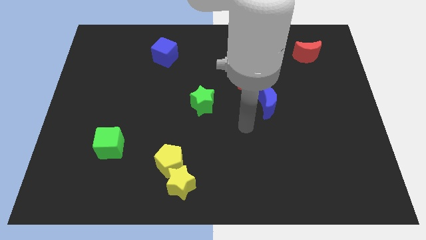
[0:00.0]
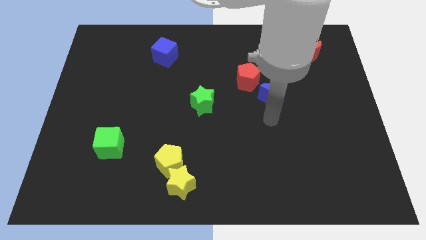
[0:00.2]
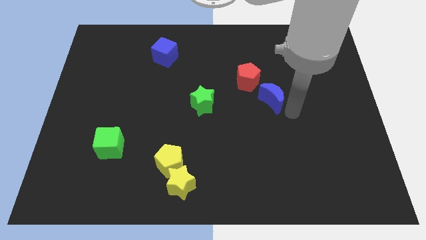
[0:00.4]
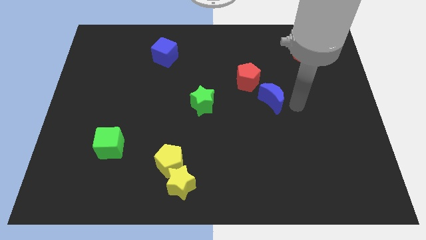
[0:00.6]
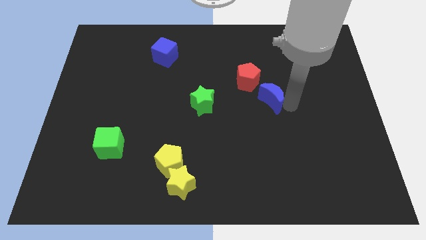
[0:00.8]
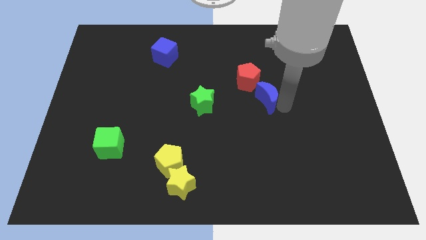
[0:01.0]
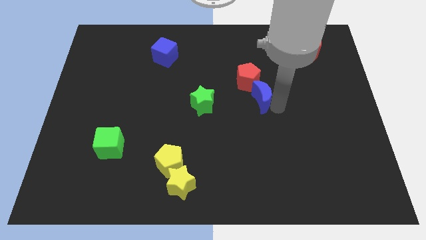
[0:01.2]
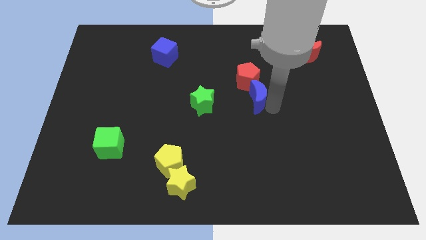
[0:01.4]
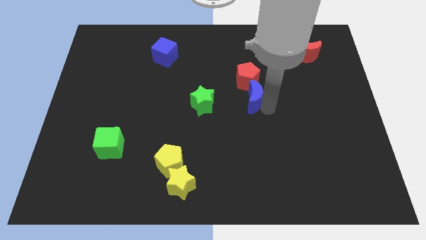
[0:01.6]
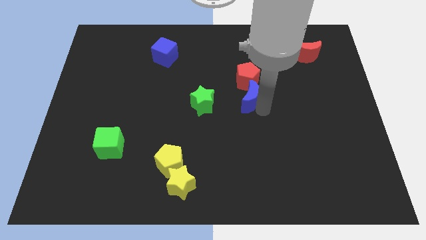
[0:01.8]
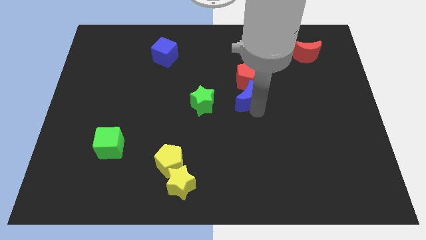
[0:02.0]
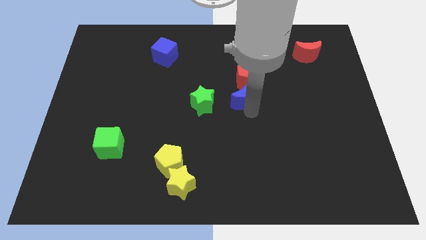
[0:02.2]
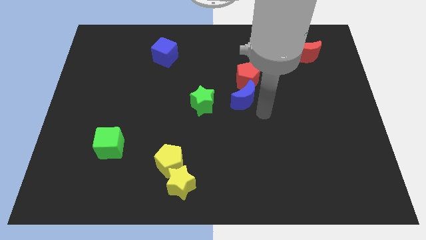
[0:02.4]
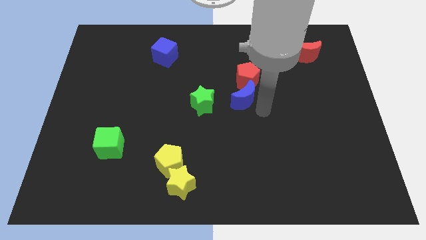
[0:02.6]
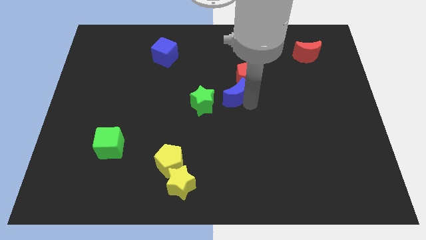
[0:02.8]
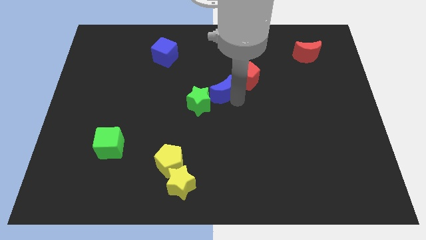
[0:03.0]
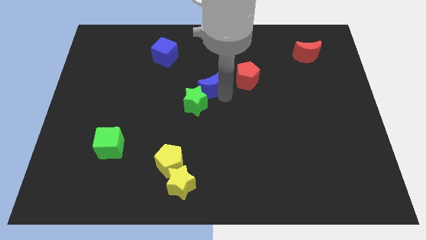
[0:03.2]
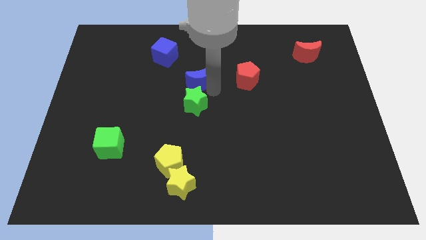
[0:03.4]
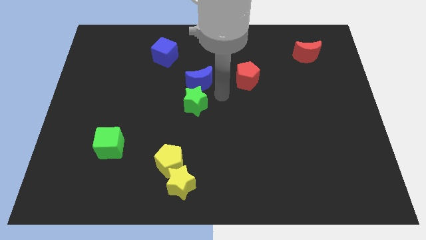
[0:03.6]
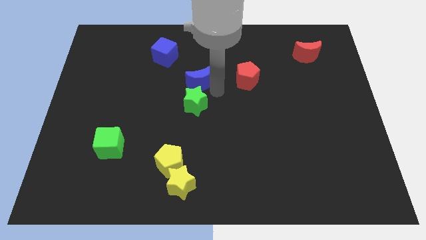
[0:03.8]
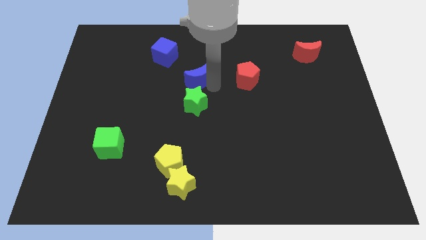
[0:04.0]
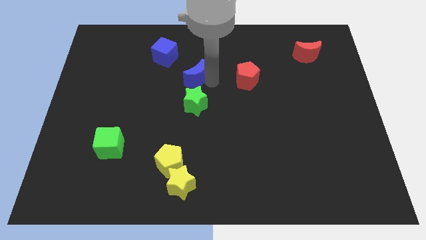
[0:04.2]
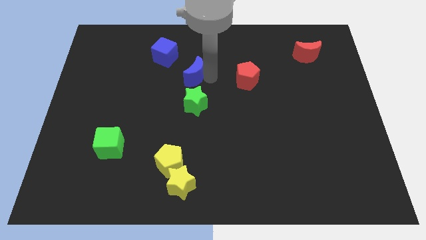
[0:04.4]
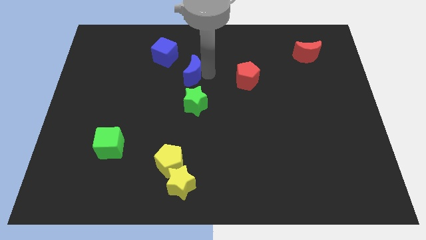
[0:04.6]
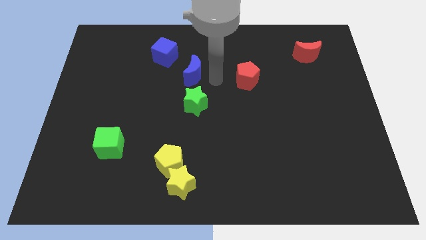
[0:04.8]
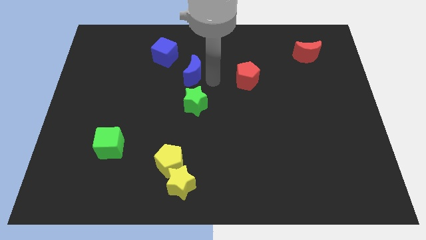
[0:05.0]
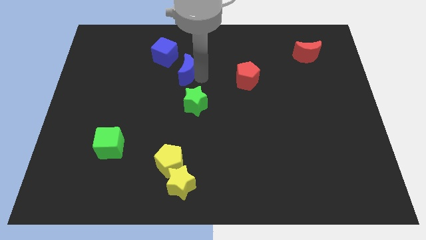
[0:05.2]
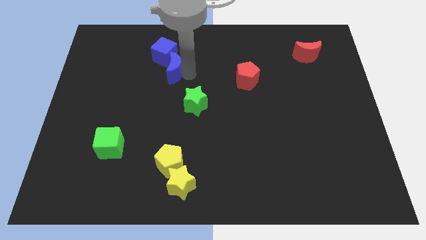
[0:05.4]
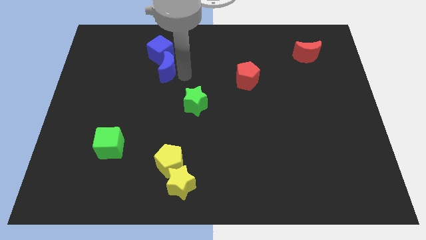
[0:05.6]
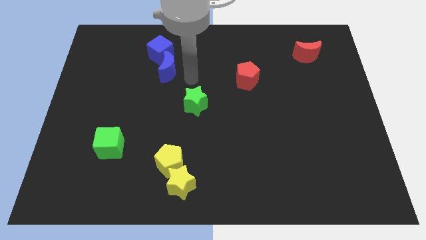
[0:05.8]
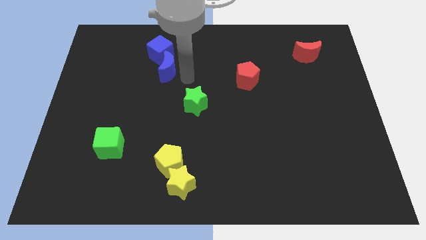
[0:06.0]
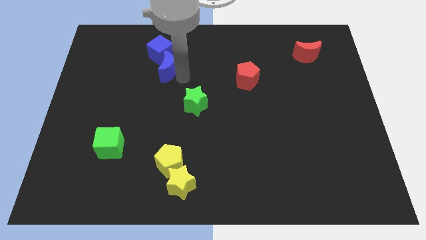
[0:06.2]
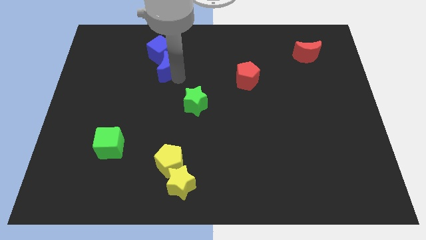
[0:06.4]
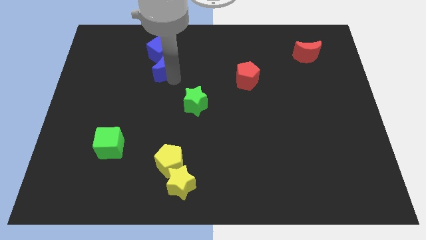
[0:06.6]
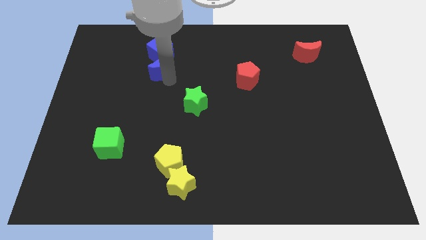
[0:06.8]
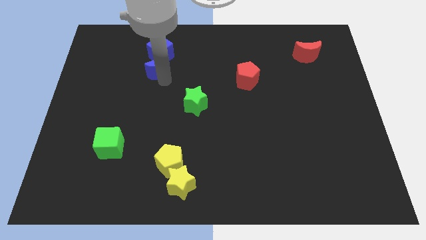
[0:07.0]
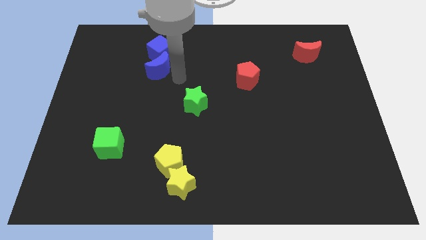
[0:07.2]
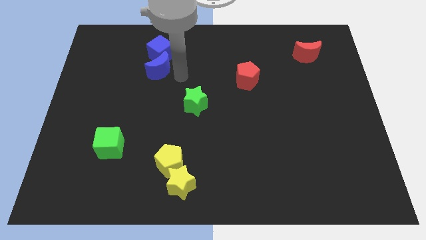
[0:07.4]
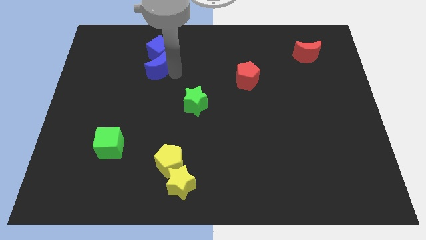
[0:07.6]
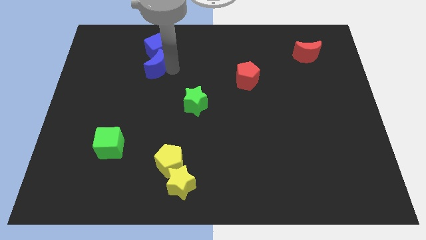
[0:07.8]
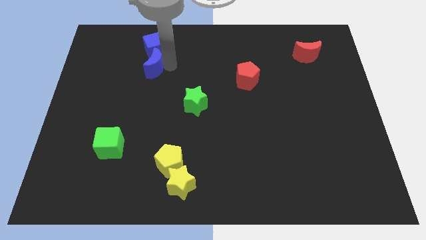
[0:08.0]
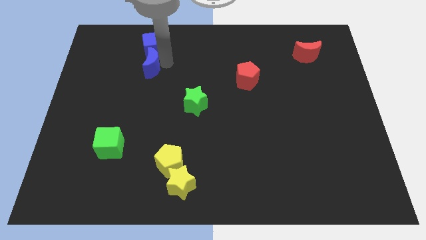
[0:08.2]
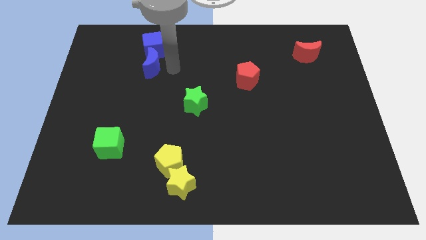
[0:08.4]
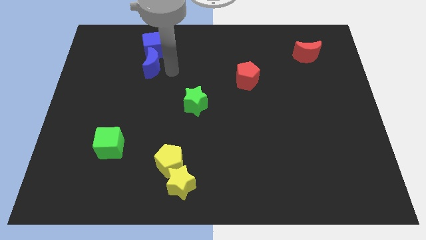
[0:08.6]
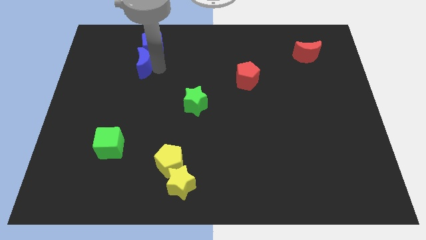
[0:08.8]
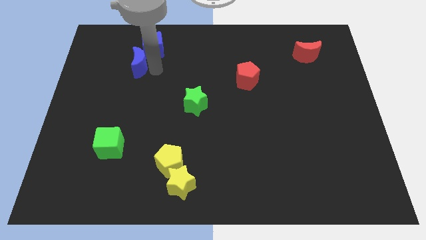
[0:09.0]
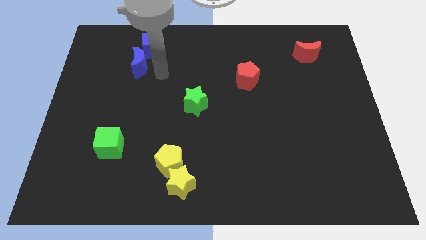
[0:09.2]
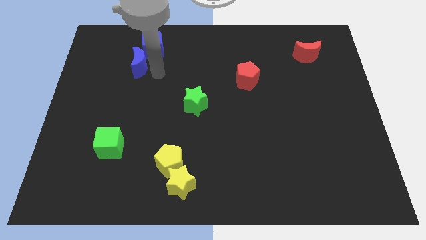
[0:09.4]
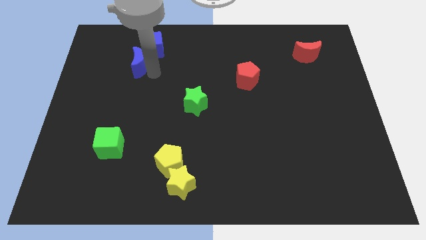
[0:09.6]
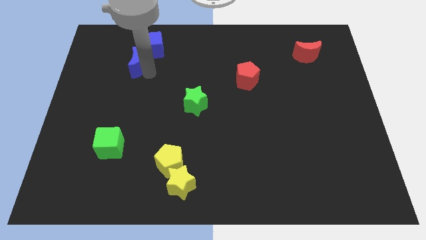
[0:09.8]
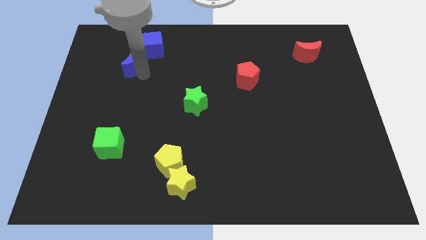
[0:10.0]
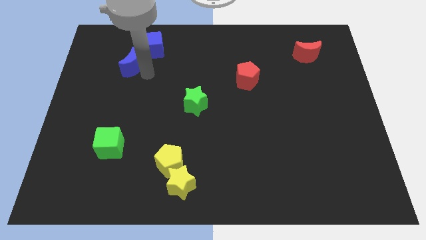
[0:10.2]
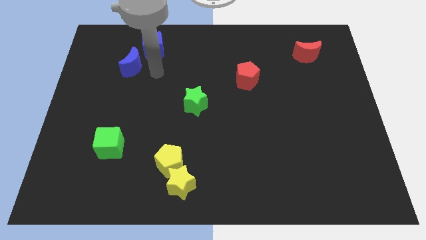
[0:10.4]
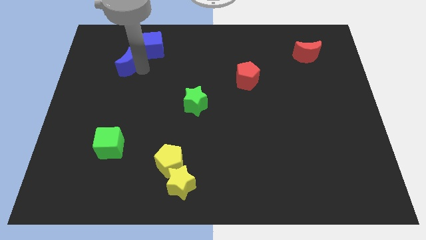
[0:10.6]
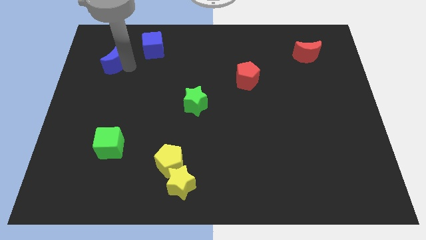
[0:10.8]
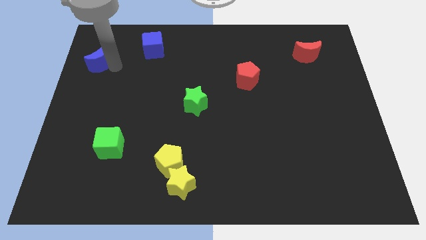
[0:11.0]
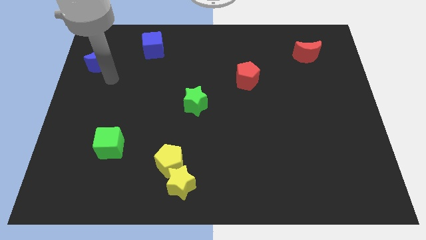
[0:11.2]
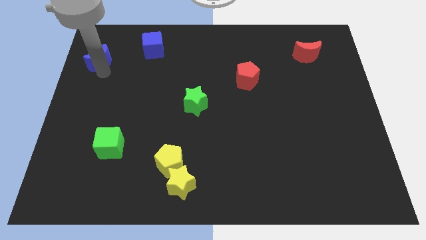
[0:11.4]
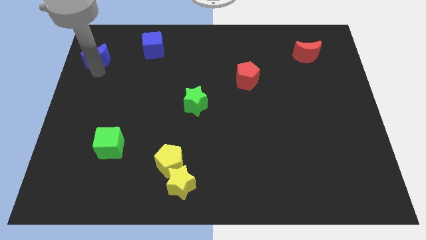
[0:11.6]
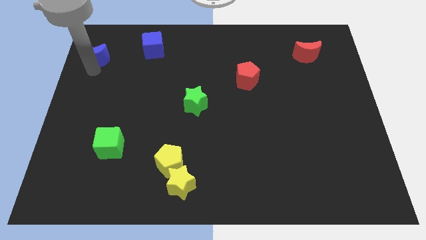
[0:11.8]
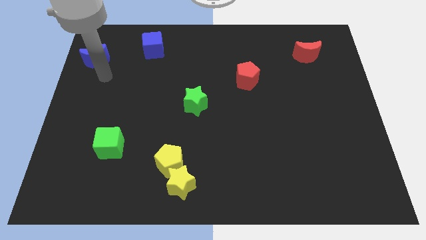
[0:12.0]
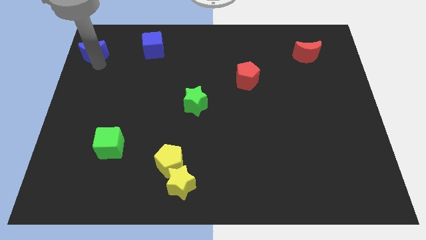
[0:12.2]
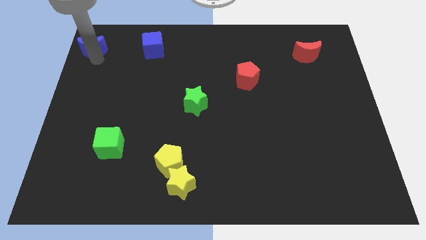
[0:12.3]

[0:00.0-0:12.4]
put the blue moon to the top left of the board

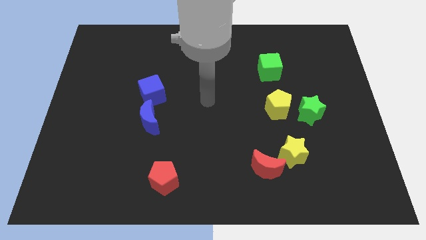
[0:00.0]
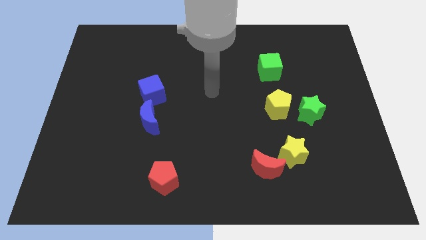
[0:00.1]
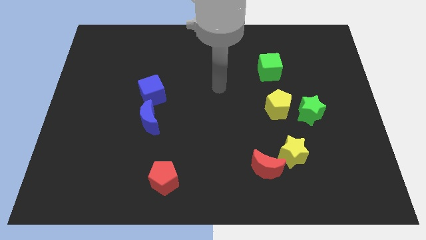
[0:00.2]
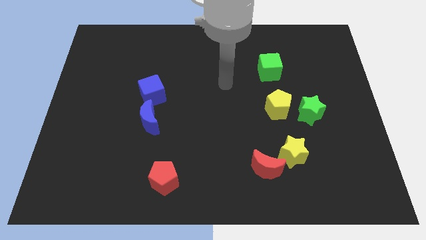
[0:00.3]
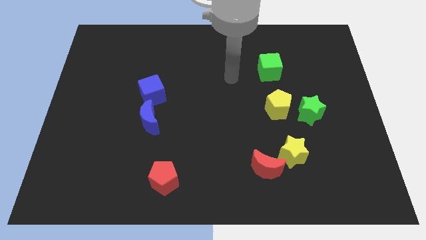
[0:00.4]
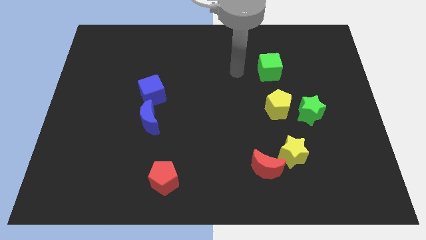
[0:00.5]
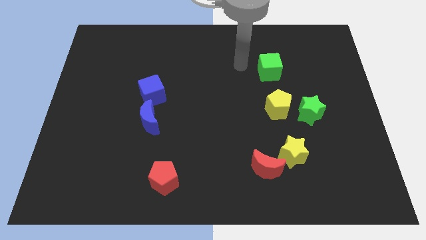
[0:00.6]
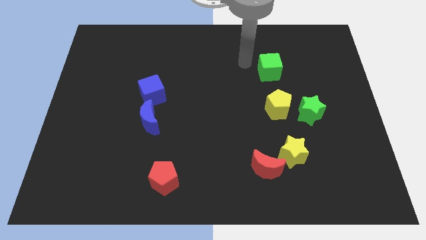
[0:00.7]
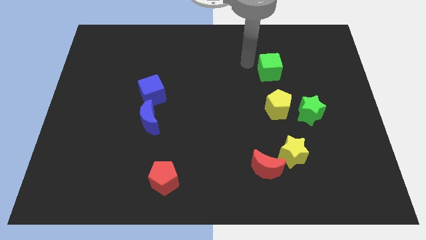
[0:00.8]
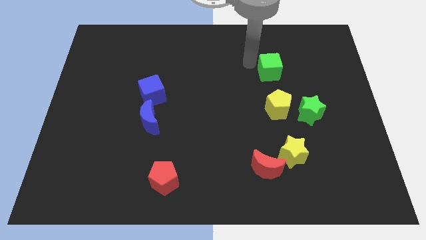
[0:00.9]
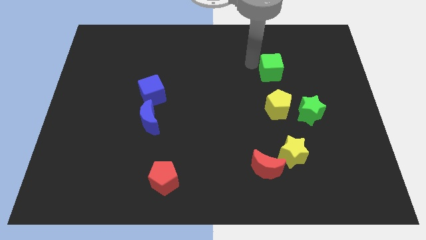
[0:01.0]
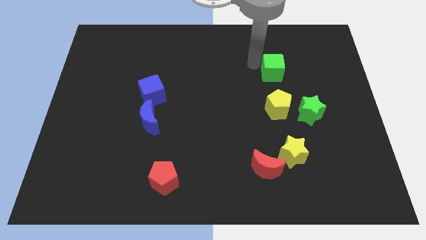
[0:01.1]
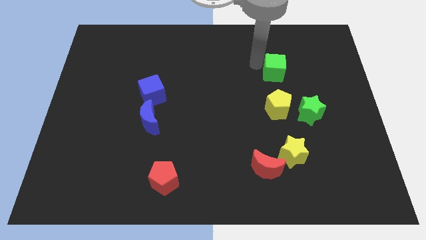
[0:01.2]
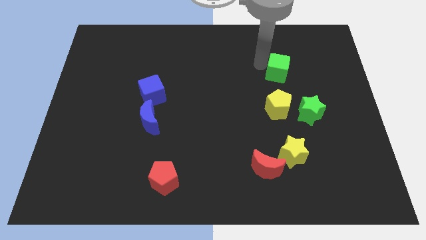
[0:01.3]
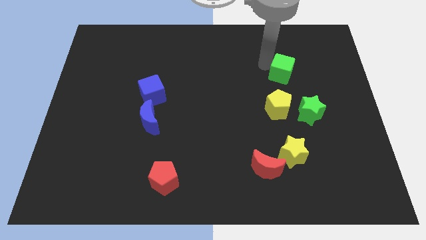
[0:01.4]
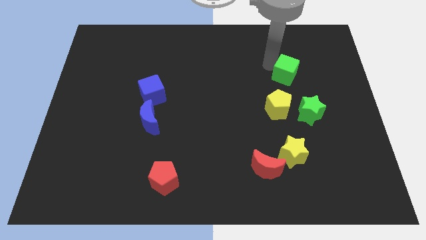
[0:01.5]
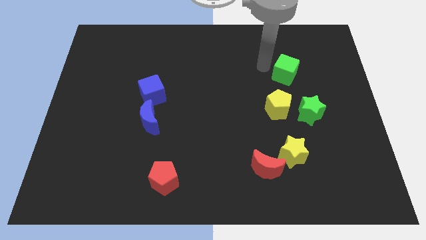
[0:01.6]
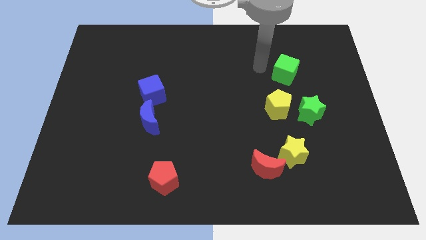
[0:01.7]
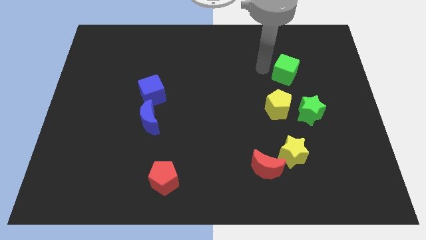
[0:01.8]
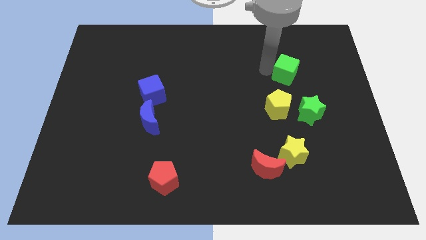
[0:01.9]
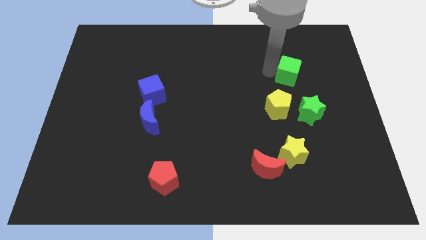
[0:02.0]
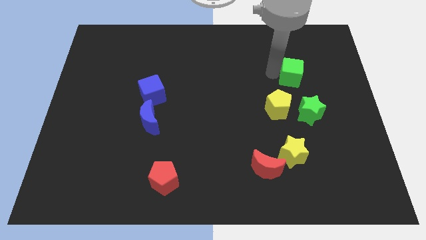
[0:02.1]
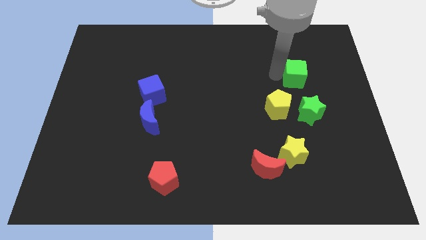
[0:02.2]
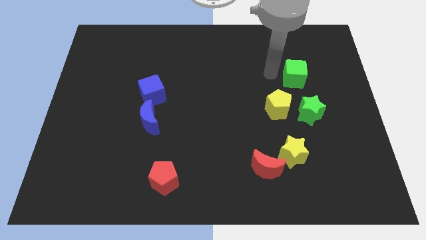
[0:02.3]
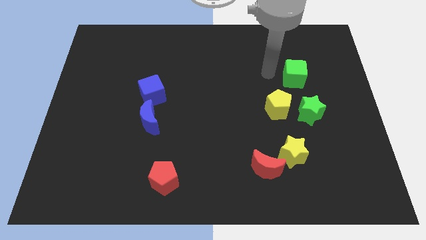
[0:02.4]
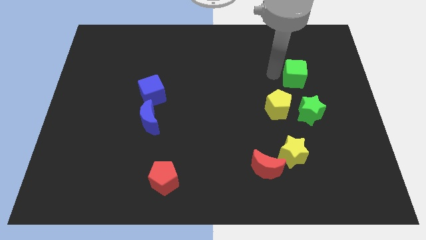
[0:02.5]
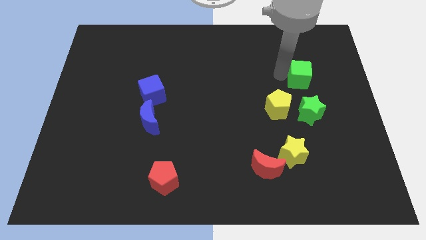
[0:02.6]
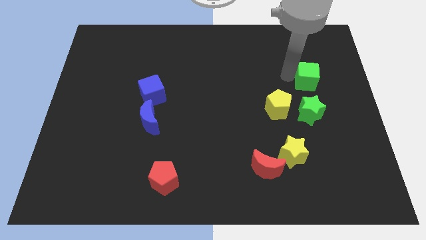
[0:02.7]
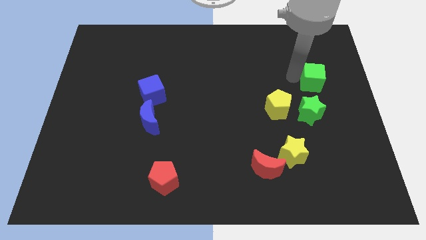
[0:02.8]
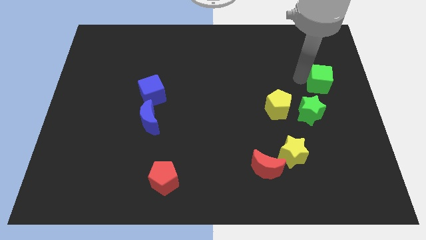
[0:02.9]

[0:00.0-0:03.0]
move the green cube to the center right
